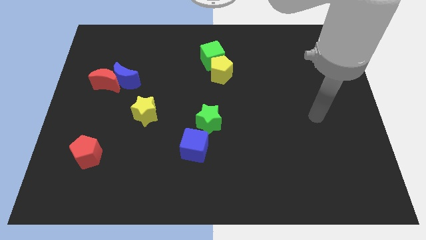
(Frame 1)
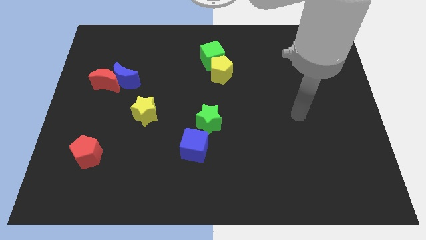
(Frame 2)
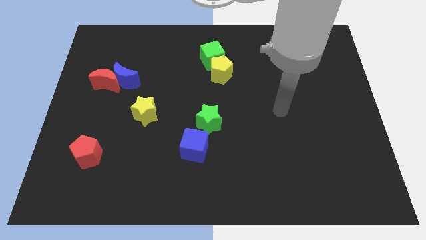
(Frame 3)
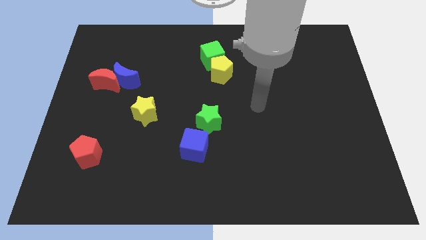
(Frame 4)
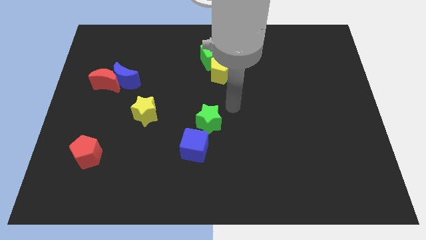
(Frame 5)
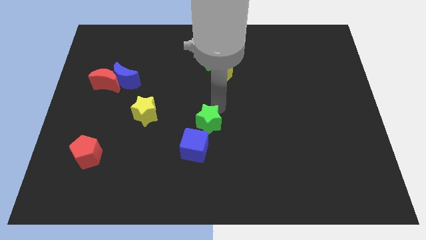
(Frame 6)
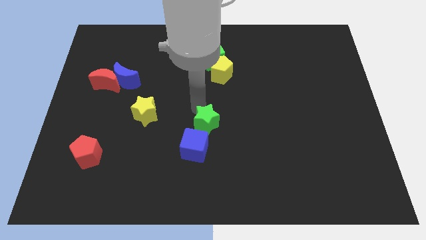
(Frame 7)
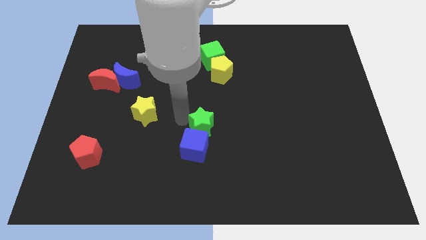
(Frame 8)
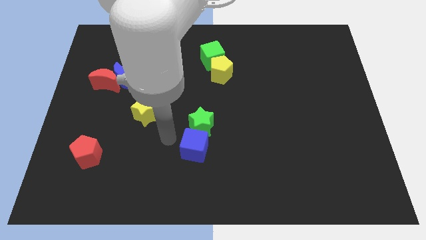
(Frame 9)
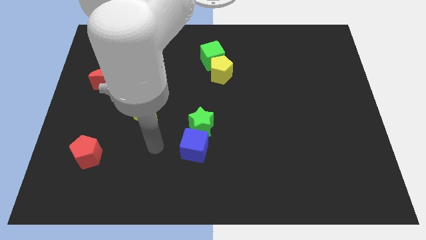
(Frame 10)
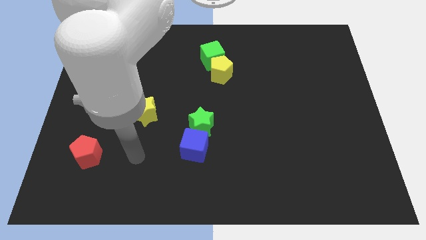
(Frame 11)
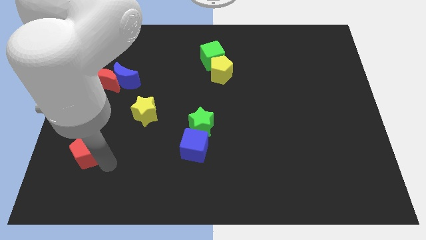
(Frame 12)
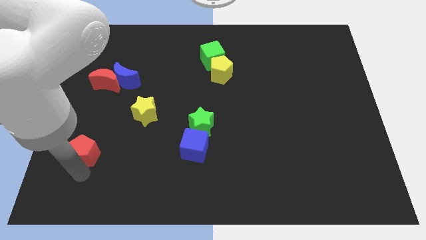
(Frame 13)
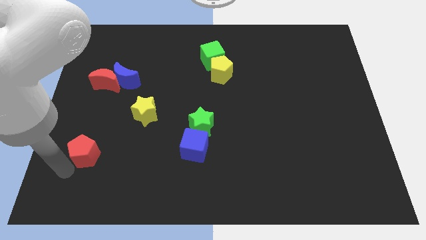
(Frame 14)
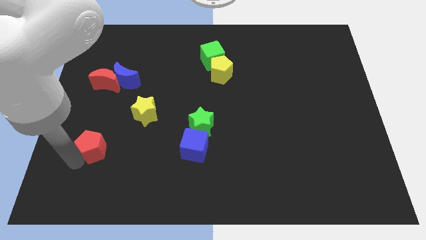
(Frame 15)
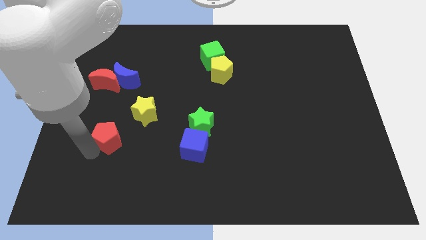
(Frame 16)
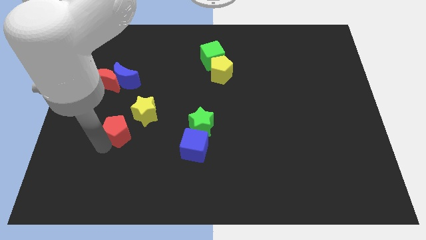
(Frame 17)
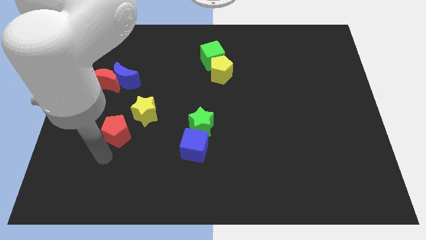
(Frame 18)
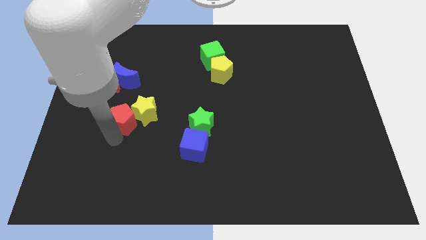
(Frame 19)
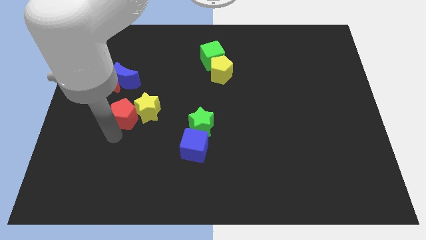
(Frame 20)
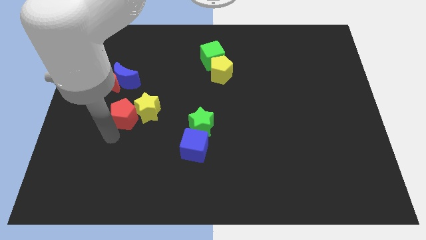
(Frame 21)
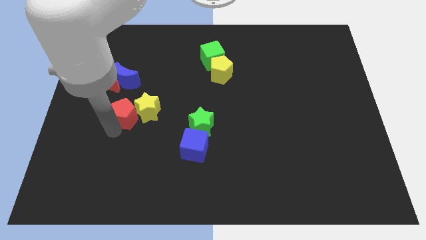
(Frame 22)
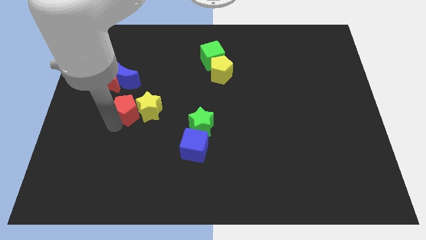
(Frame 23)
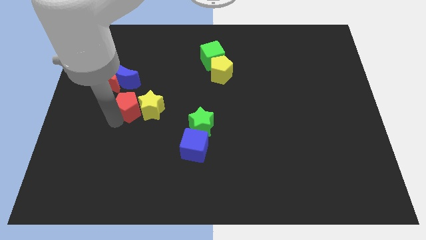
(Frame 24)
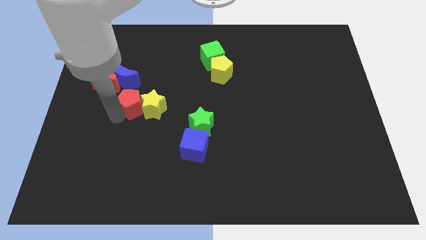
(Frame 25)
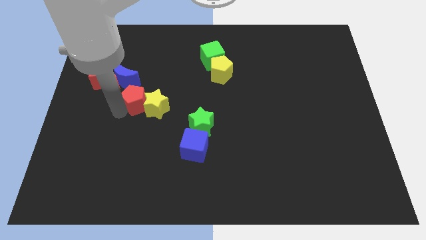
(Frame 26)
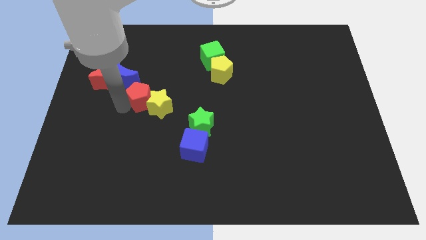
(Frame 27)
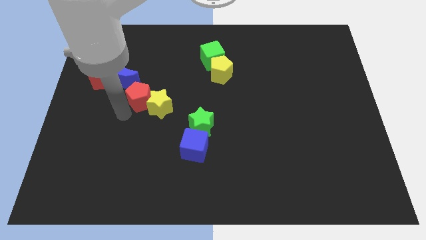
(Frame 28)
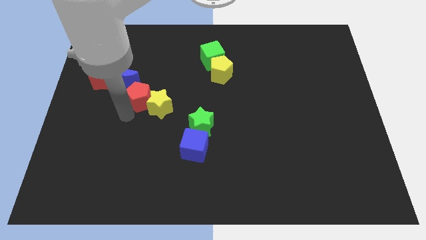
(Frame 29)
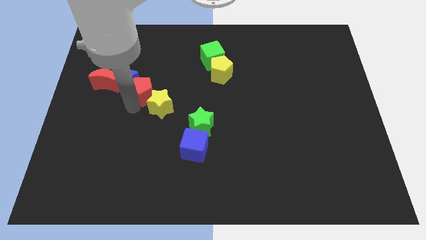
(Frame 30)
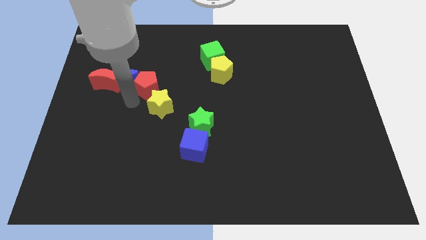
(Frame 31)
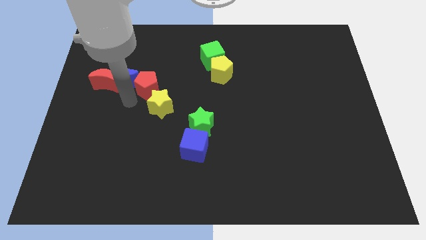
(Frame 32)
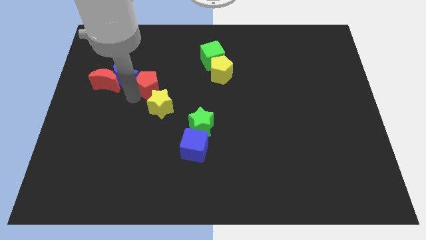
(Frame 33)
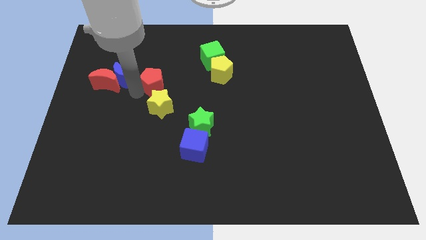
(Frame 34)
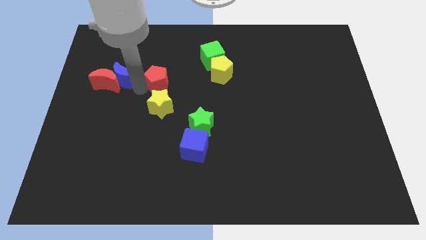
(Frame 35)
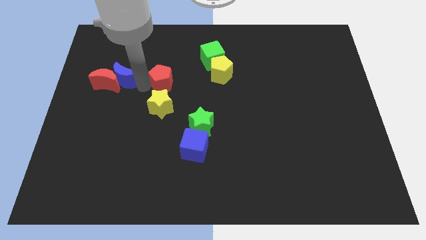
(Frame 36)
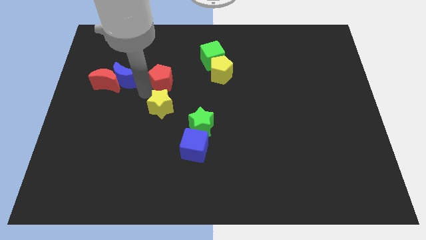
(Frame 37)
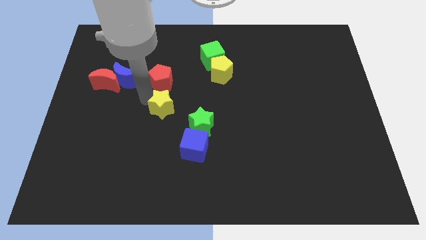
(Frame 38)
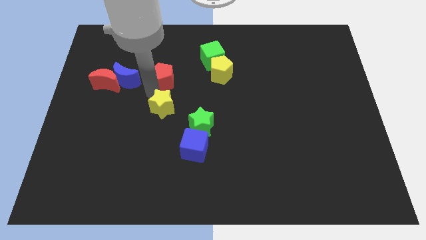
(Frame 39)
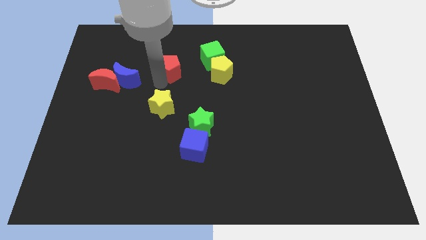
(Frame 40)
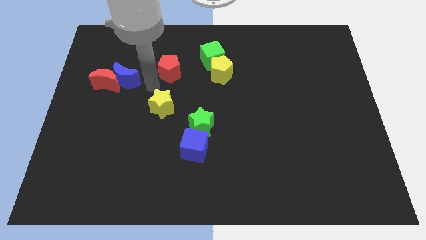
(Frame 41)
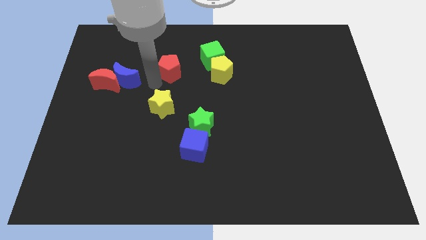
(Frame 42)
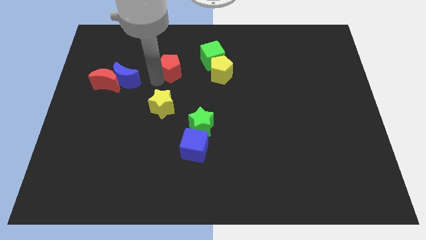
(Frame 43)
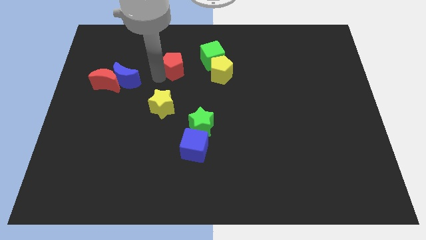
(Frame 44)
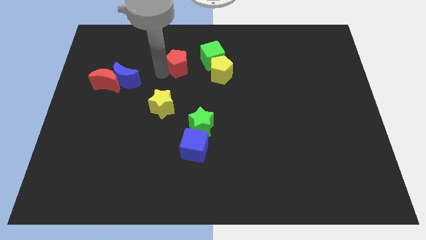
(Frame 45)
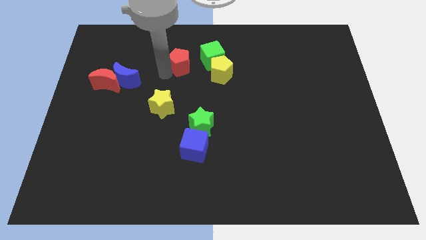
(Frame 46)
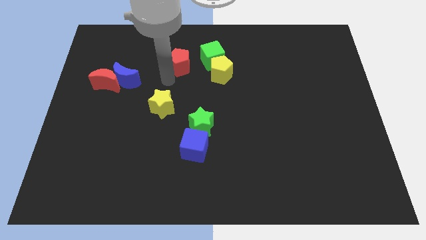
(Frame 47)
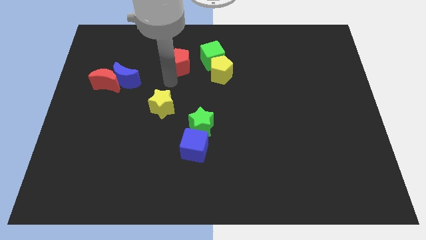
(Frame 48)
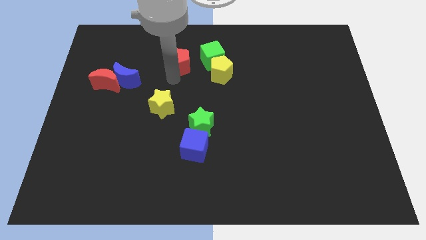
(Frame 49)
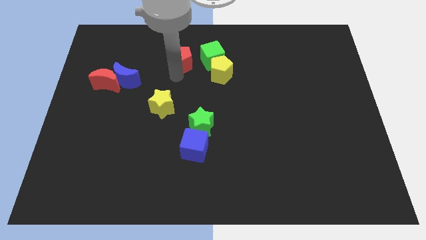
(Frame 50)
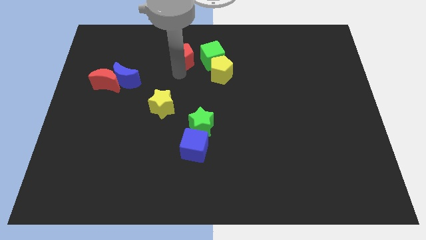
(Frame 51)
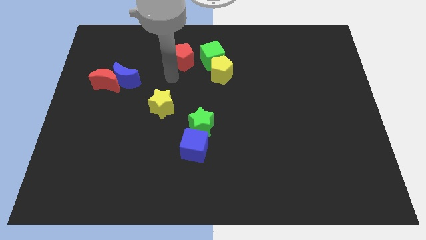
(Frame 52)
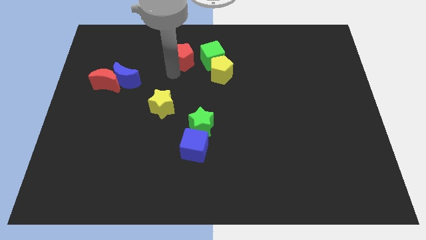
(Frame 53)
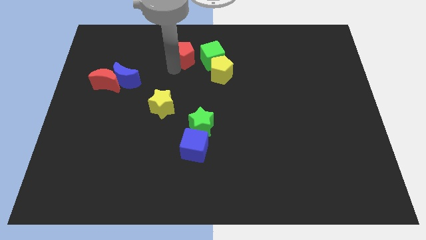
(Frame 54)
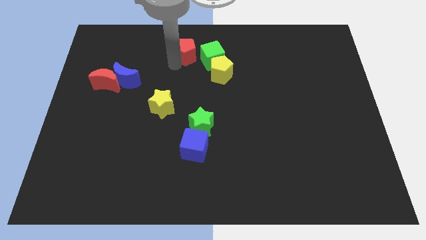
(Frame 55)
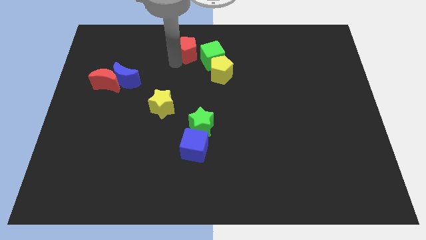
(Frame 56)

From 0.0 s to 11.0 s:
put the red pentagon to the towards your base

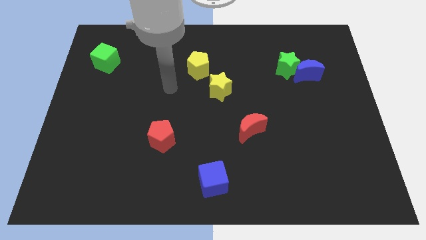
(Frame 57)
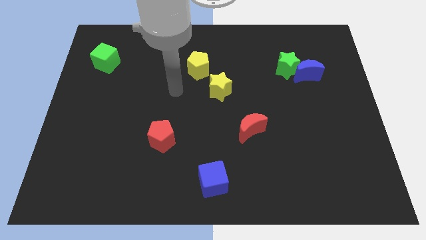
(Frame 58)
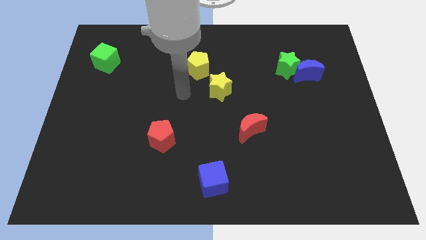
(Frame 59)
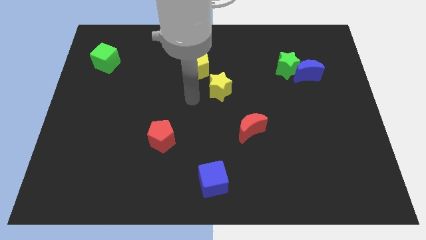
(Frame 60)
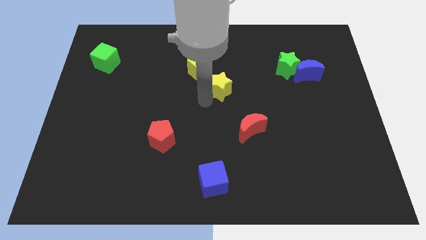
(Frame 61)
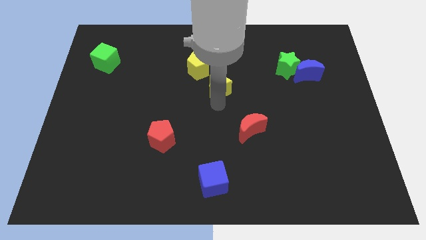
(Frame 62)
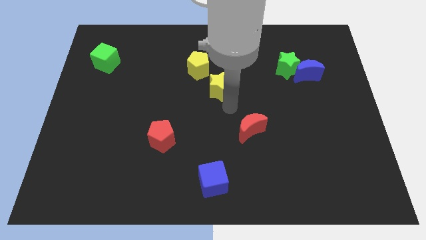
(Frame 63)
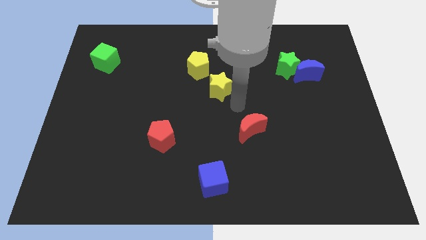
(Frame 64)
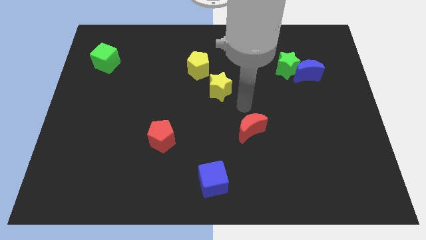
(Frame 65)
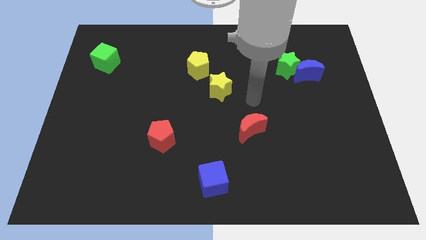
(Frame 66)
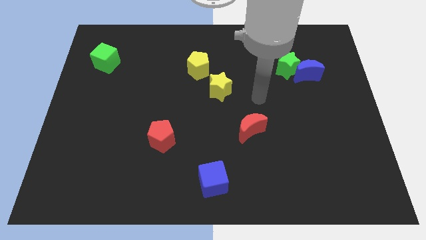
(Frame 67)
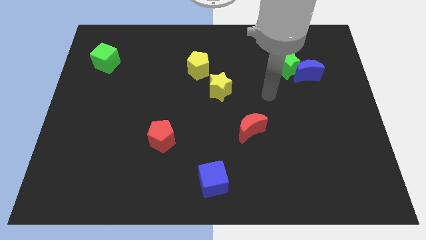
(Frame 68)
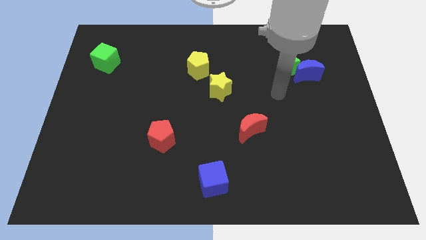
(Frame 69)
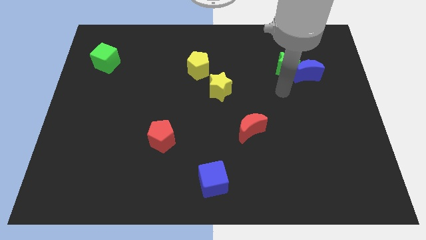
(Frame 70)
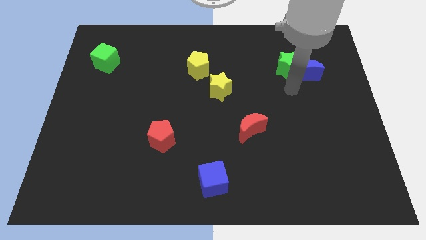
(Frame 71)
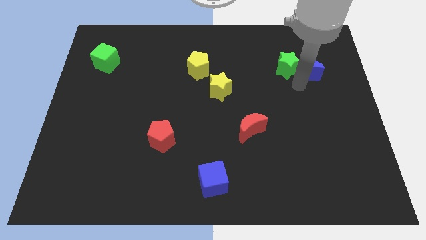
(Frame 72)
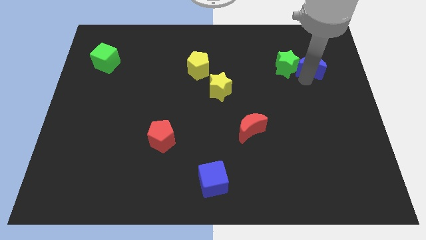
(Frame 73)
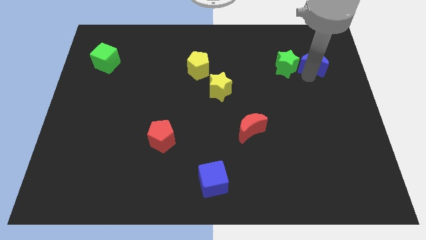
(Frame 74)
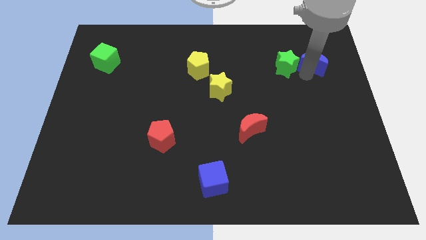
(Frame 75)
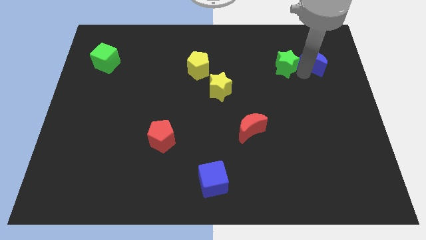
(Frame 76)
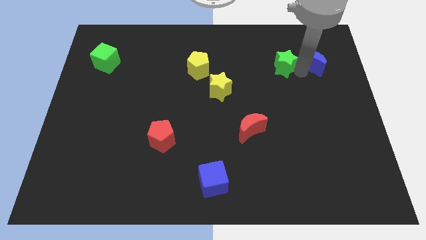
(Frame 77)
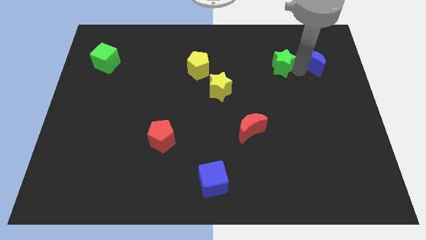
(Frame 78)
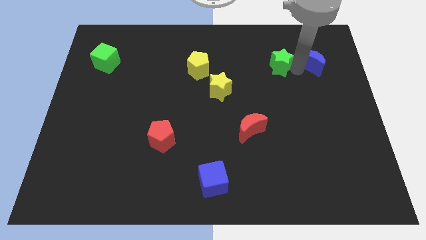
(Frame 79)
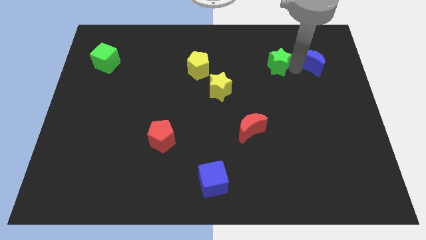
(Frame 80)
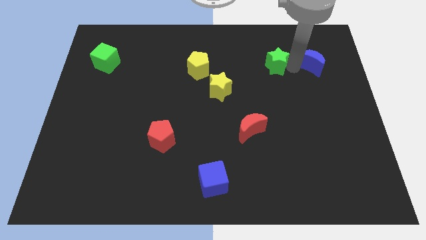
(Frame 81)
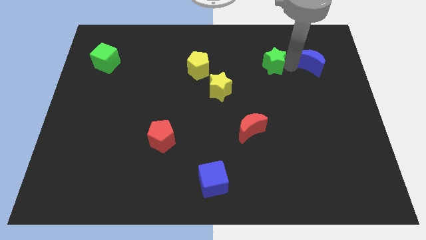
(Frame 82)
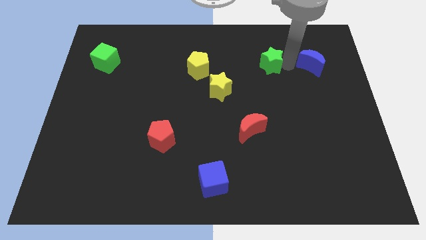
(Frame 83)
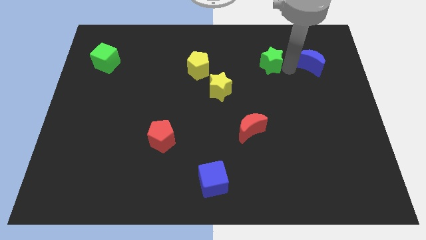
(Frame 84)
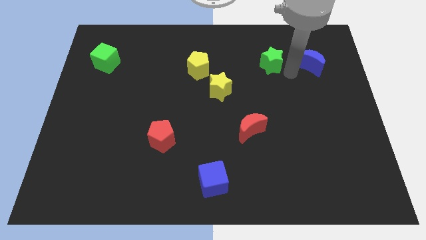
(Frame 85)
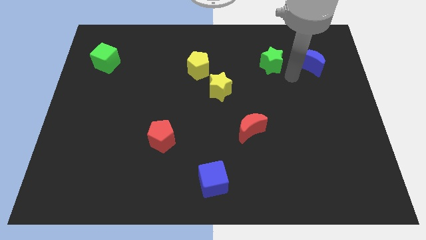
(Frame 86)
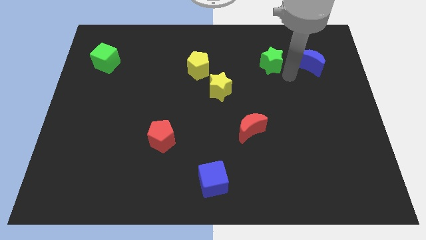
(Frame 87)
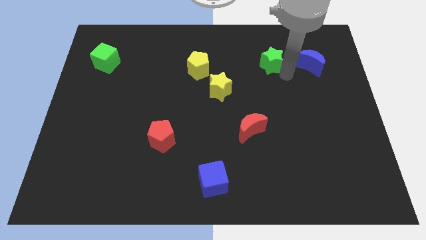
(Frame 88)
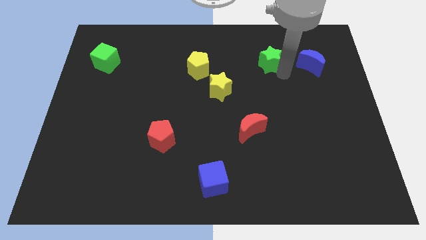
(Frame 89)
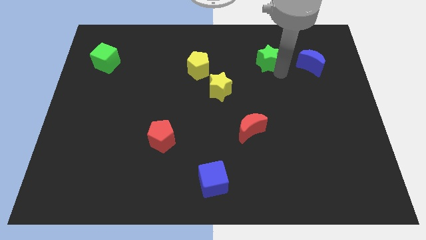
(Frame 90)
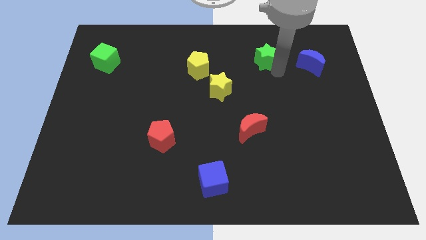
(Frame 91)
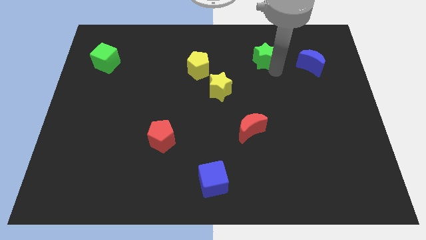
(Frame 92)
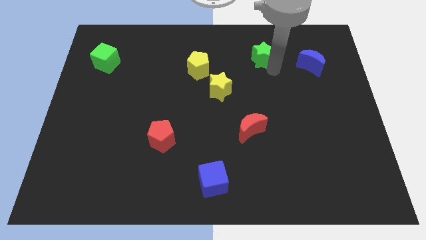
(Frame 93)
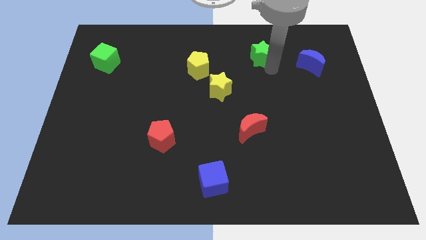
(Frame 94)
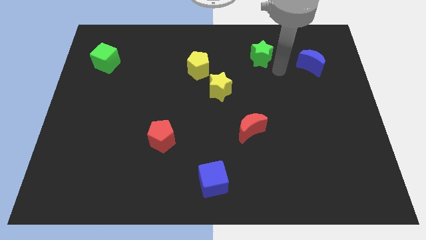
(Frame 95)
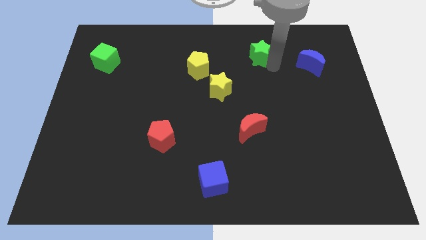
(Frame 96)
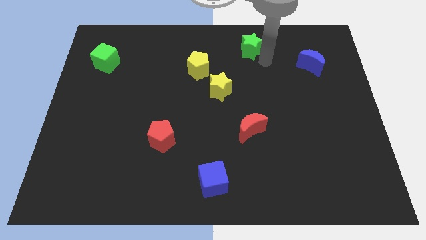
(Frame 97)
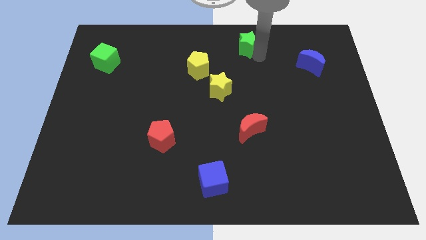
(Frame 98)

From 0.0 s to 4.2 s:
push the green star to the towards your base
